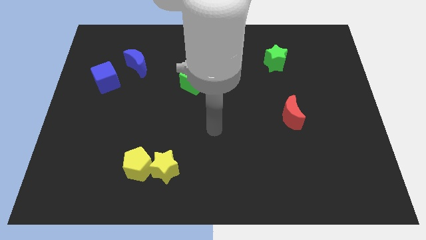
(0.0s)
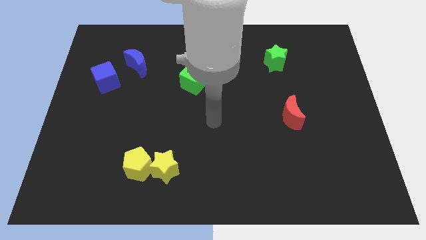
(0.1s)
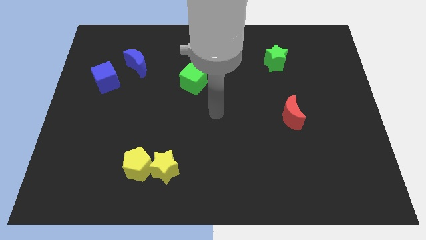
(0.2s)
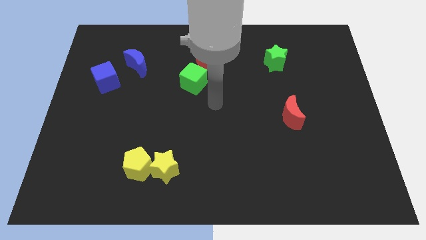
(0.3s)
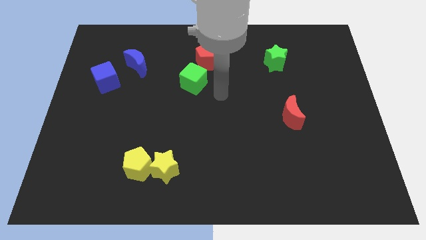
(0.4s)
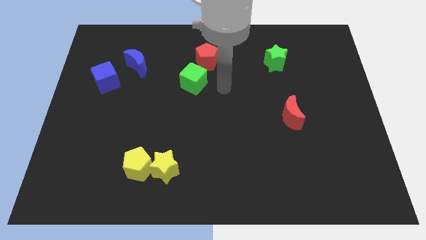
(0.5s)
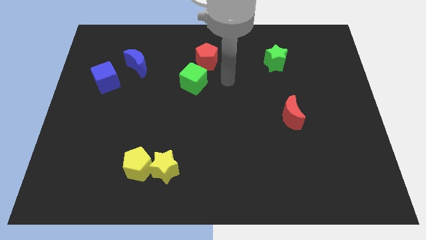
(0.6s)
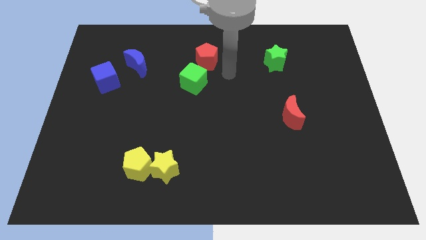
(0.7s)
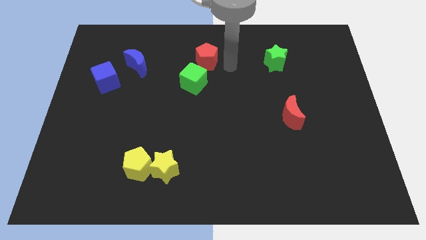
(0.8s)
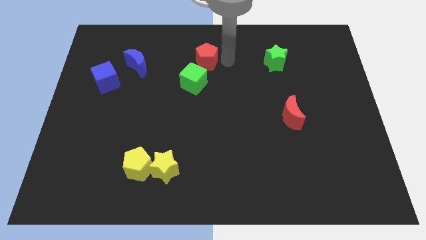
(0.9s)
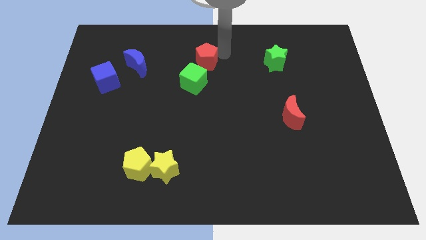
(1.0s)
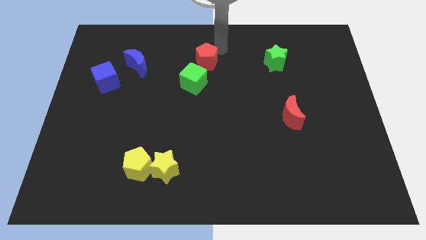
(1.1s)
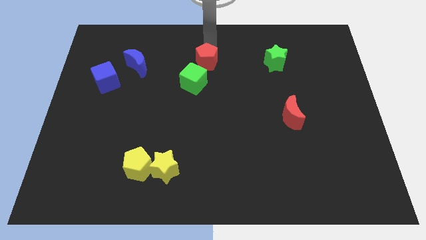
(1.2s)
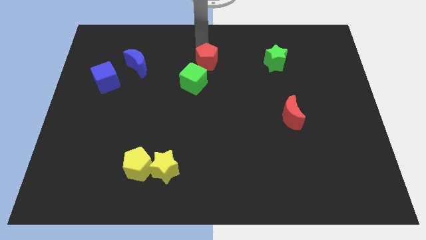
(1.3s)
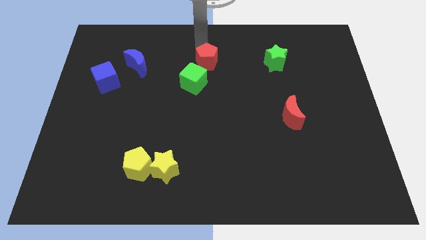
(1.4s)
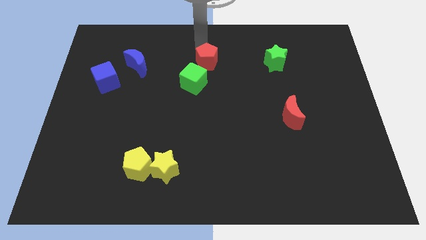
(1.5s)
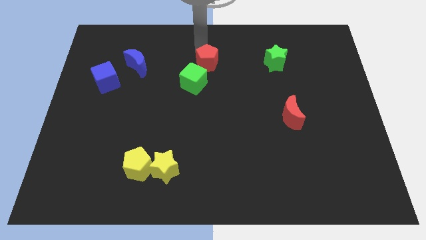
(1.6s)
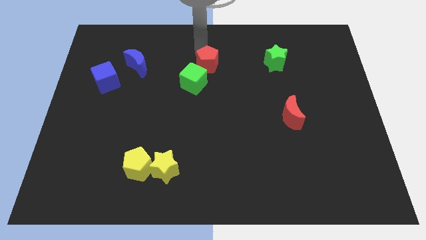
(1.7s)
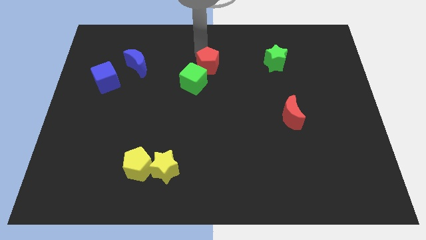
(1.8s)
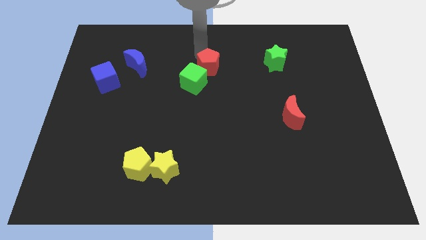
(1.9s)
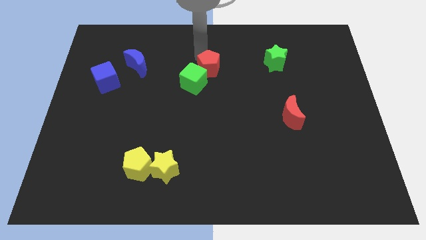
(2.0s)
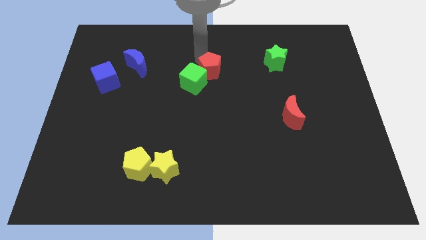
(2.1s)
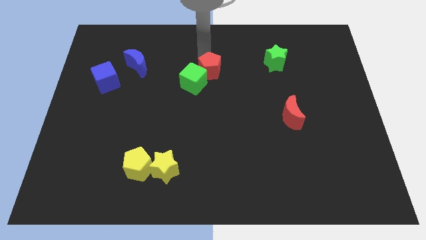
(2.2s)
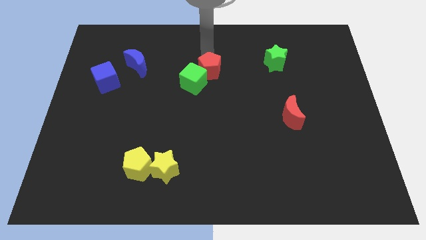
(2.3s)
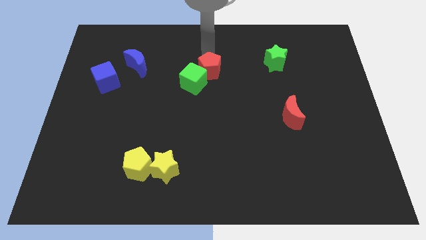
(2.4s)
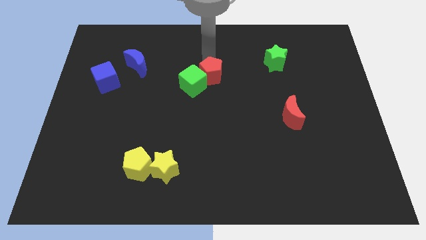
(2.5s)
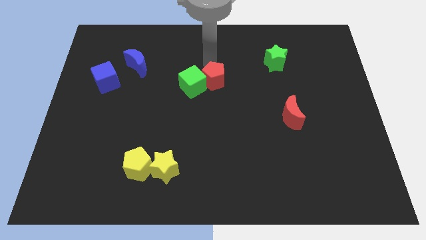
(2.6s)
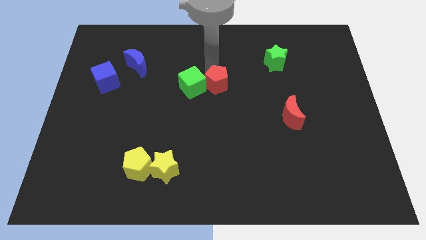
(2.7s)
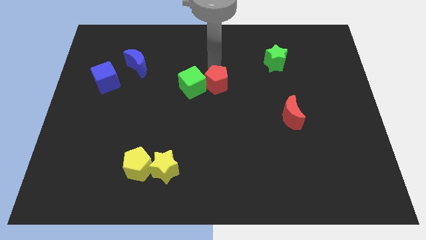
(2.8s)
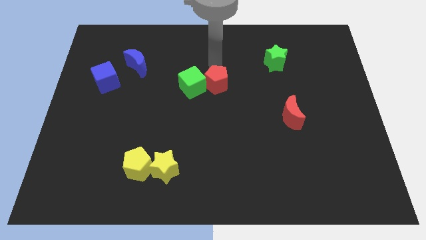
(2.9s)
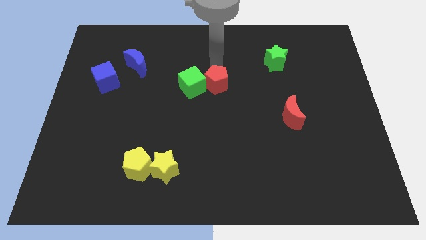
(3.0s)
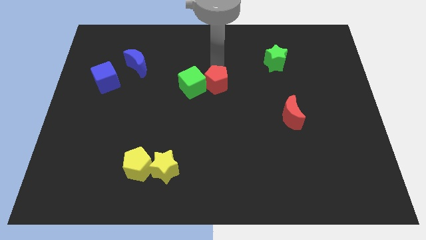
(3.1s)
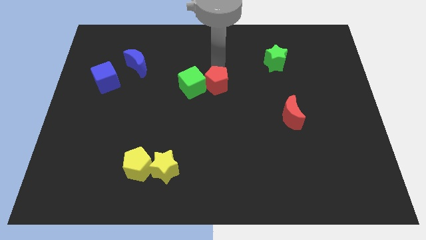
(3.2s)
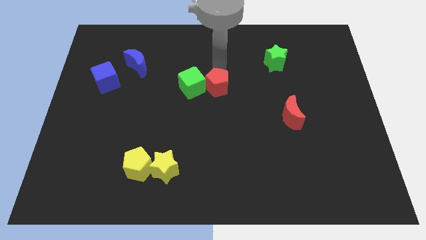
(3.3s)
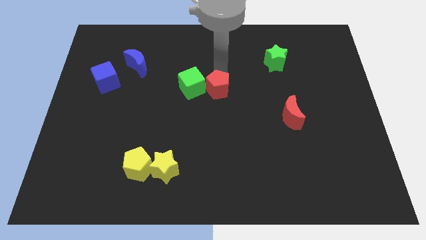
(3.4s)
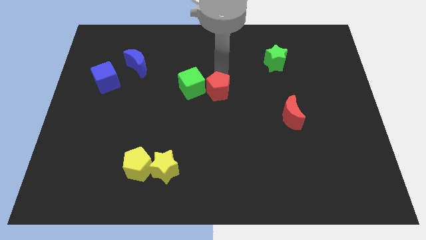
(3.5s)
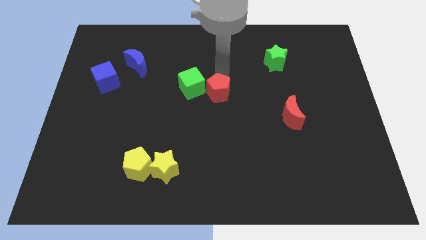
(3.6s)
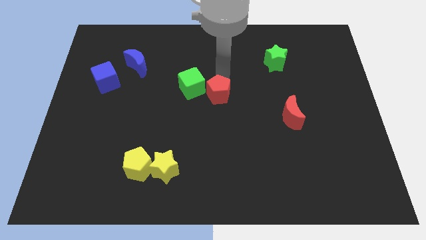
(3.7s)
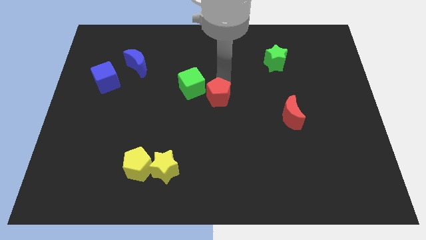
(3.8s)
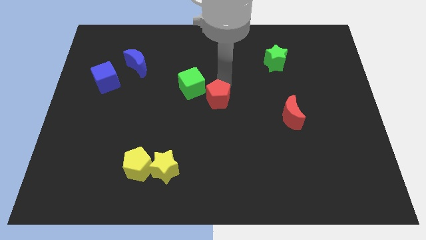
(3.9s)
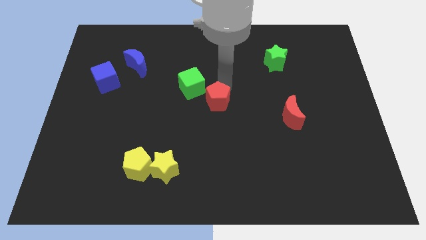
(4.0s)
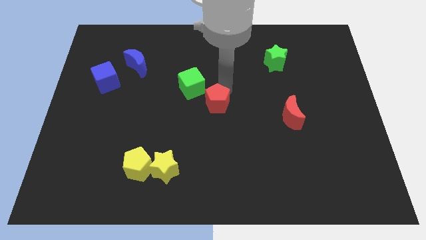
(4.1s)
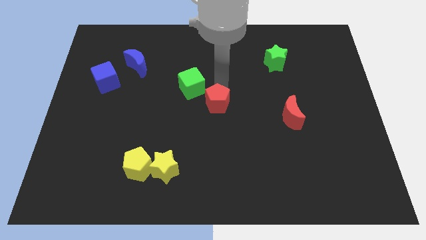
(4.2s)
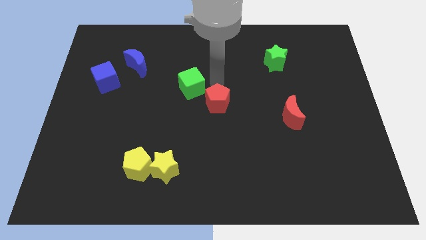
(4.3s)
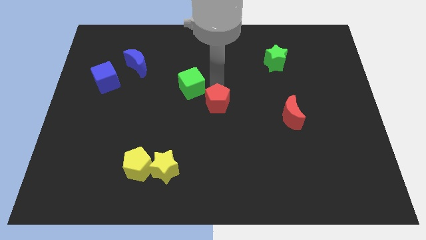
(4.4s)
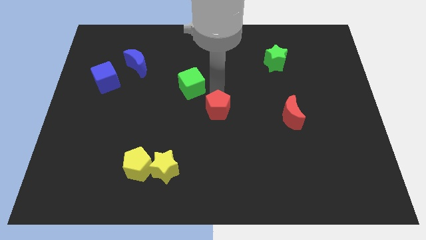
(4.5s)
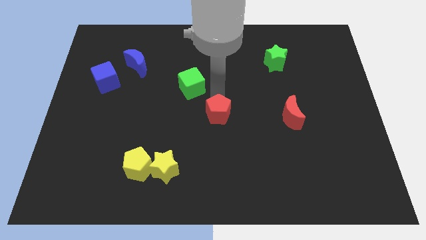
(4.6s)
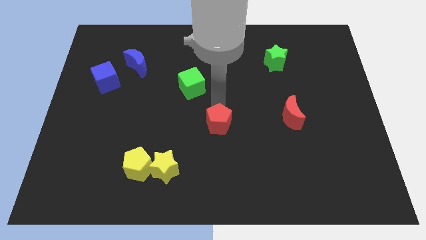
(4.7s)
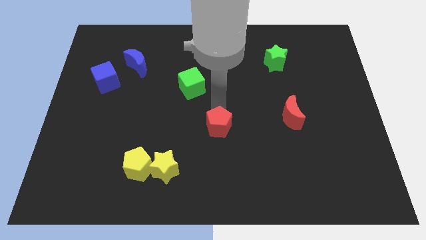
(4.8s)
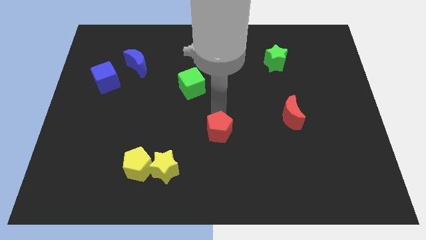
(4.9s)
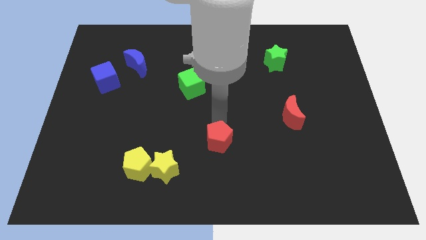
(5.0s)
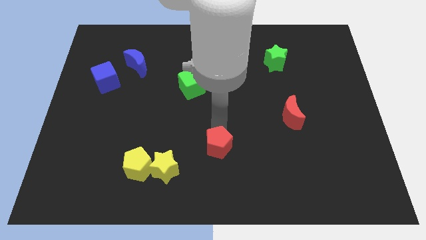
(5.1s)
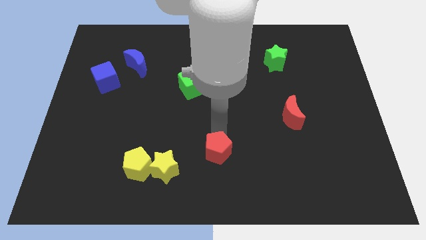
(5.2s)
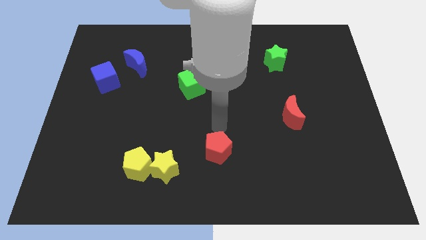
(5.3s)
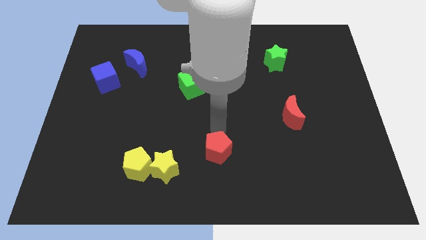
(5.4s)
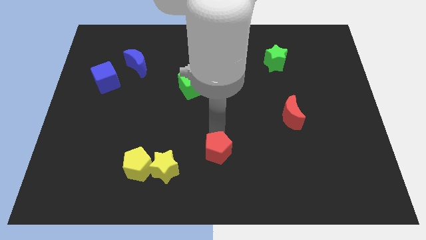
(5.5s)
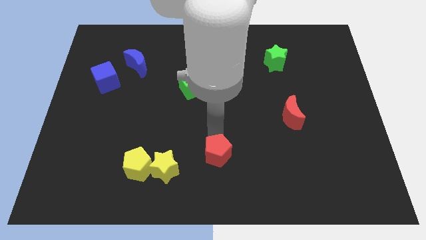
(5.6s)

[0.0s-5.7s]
move the red pentagon to the bottom side

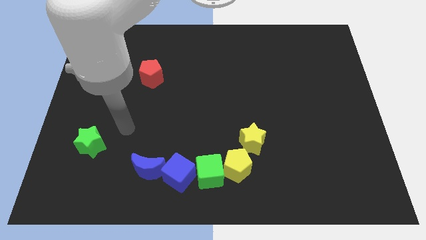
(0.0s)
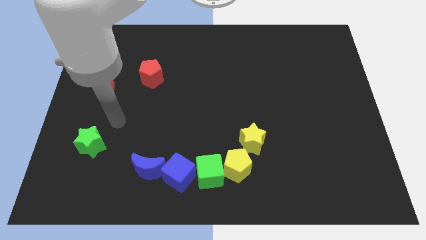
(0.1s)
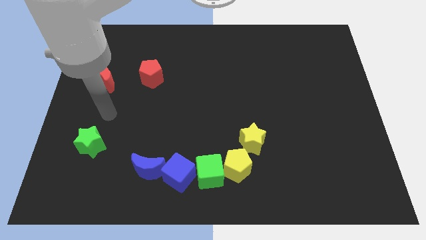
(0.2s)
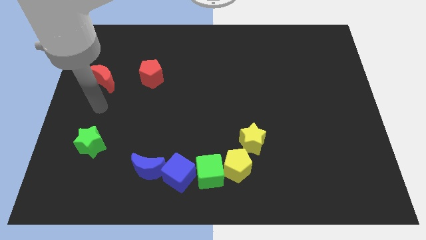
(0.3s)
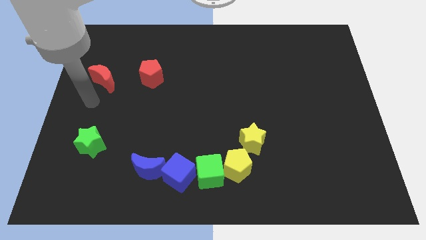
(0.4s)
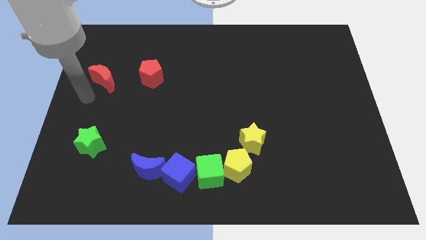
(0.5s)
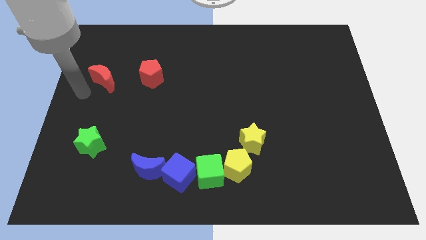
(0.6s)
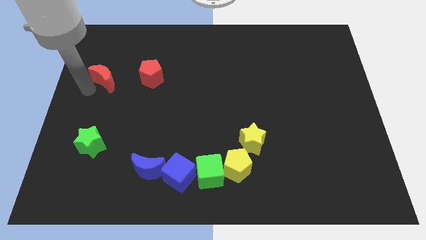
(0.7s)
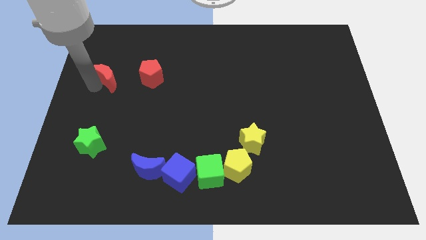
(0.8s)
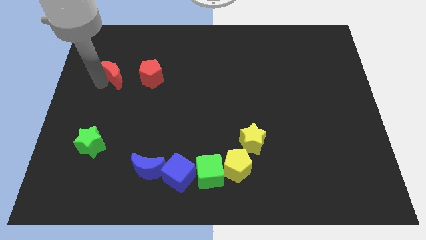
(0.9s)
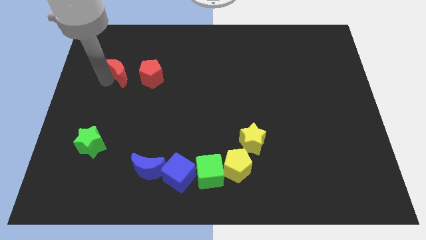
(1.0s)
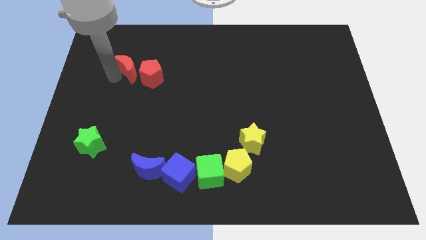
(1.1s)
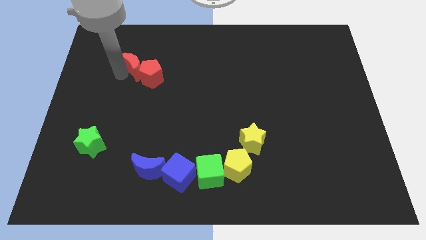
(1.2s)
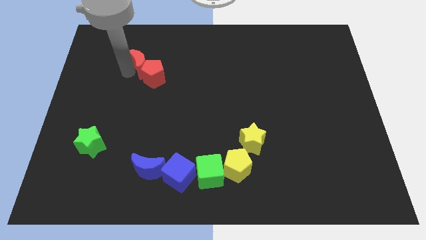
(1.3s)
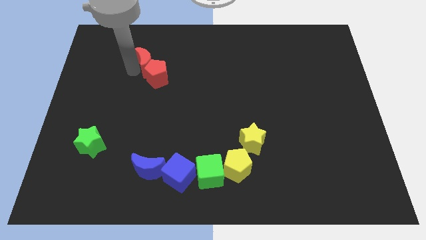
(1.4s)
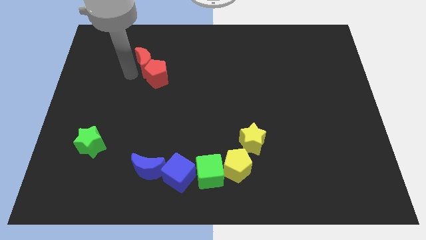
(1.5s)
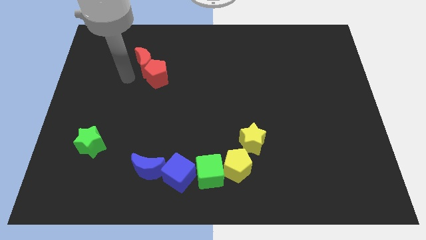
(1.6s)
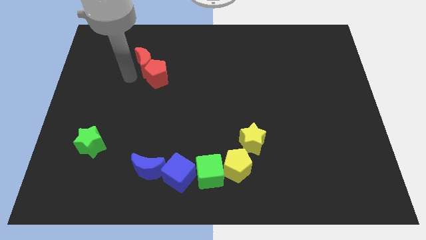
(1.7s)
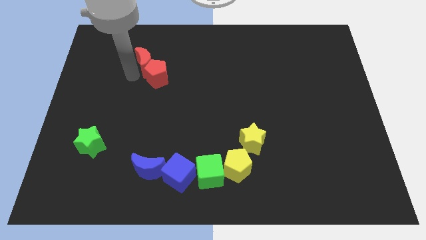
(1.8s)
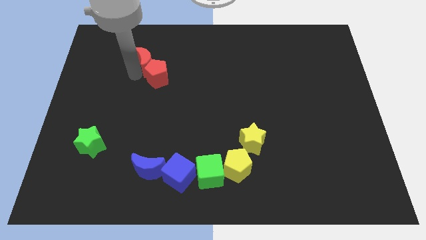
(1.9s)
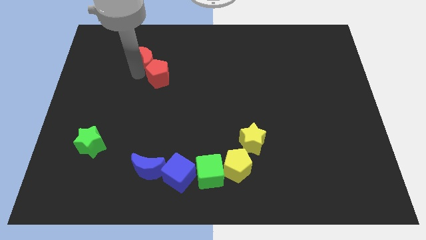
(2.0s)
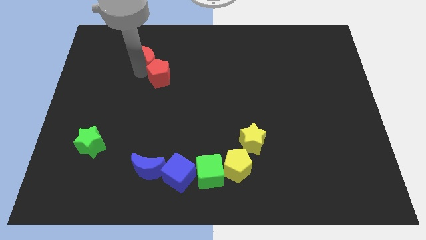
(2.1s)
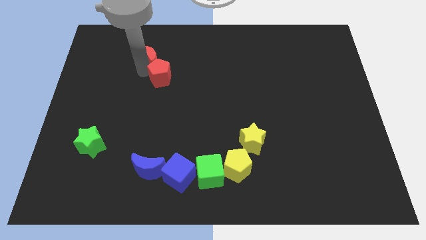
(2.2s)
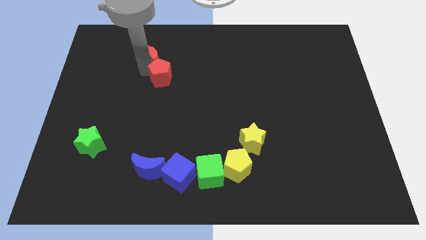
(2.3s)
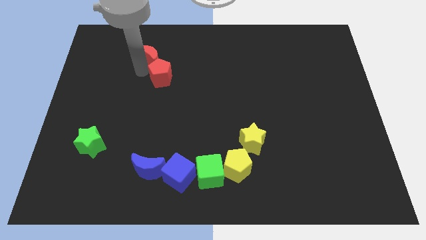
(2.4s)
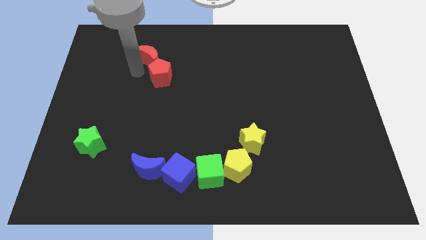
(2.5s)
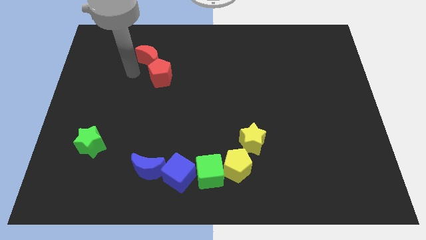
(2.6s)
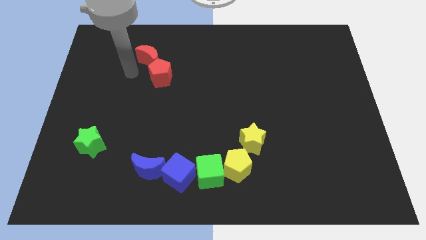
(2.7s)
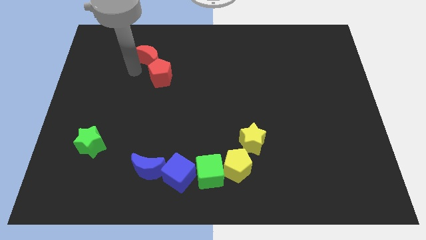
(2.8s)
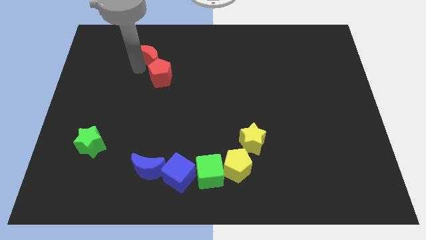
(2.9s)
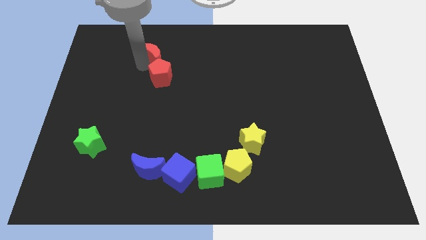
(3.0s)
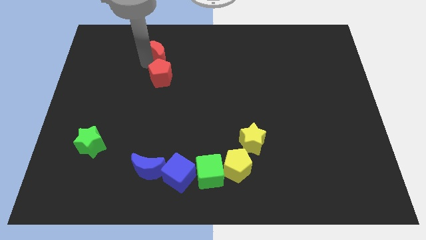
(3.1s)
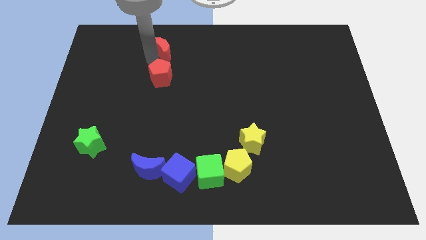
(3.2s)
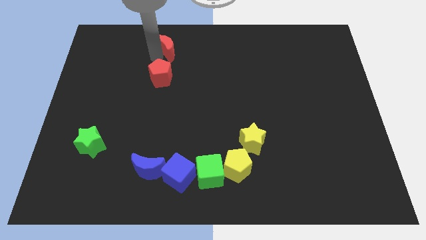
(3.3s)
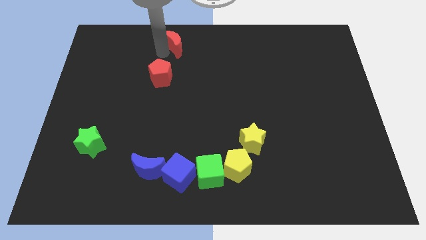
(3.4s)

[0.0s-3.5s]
put the red moon to the towards your base
